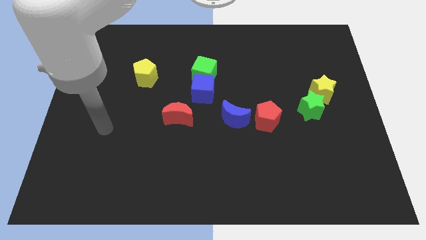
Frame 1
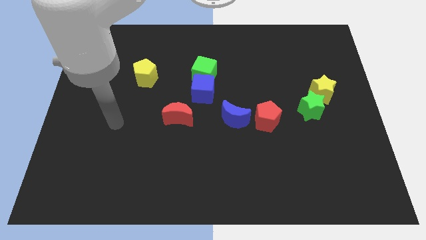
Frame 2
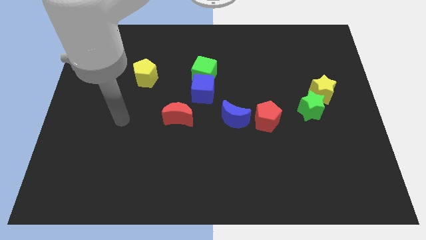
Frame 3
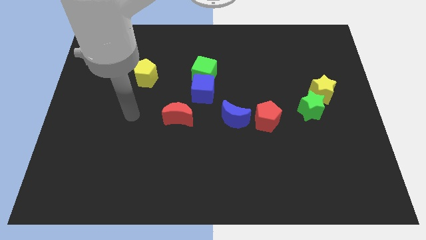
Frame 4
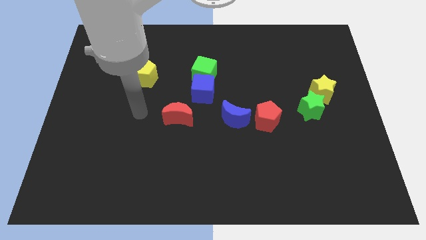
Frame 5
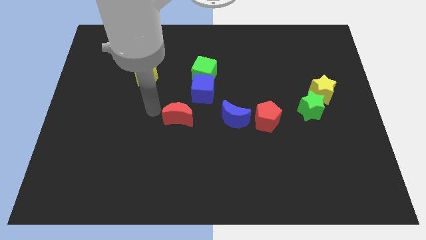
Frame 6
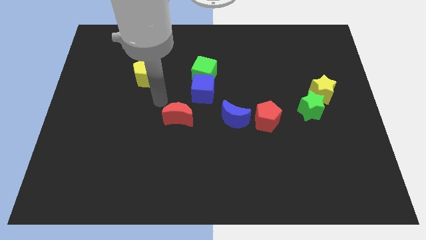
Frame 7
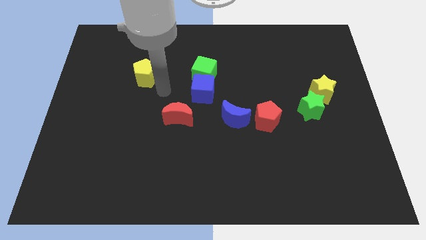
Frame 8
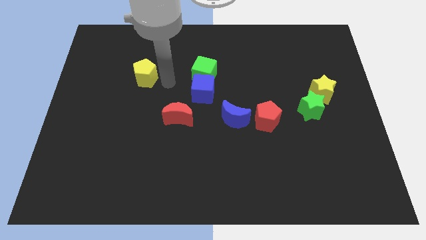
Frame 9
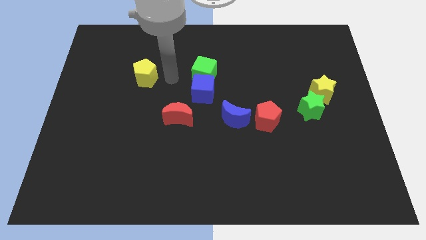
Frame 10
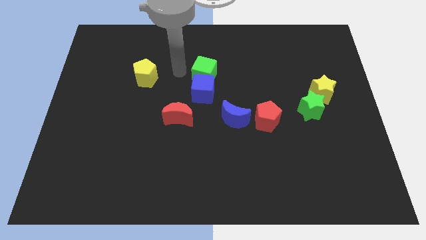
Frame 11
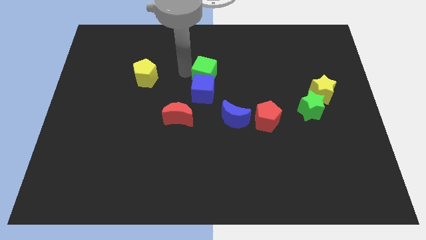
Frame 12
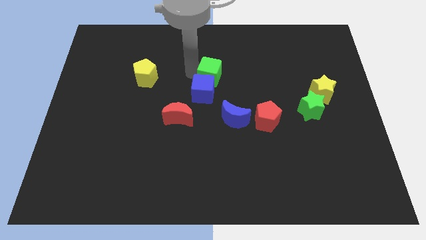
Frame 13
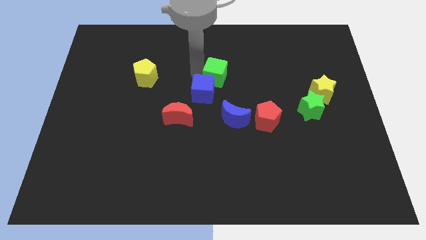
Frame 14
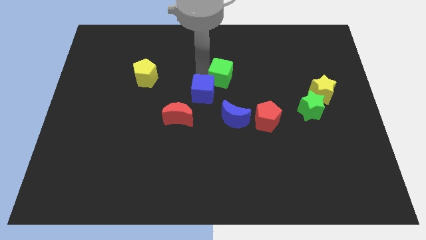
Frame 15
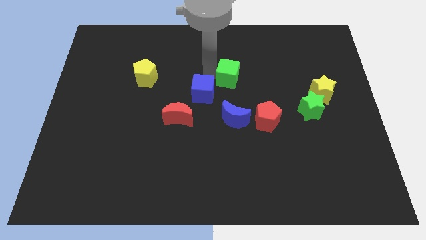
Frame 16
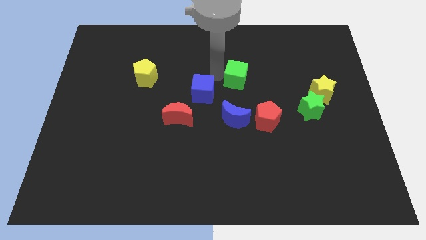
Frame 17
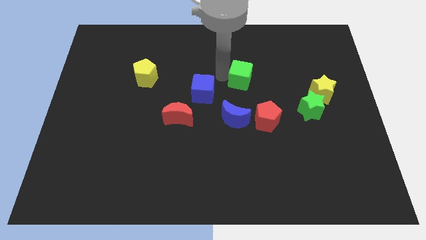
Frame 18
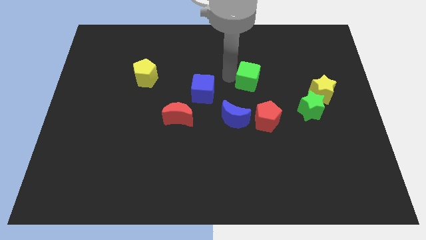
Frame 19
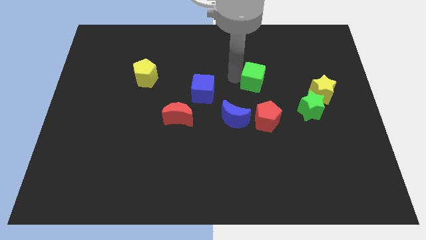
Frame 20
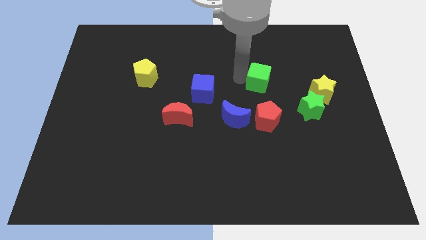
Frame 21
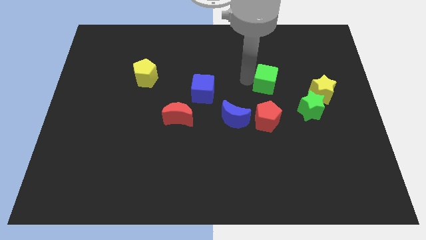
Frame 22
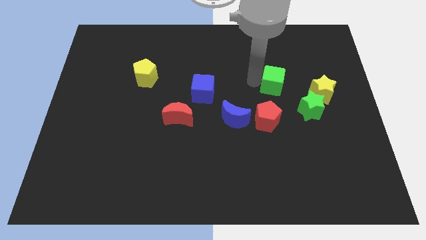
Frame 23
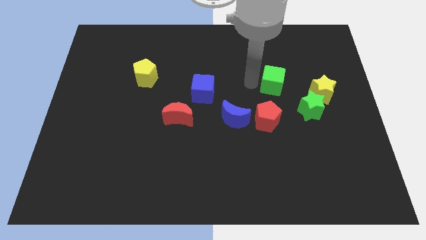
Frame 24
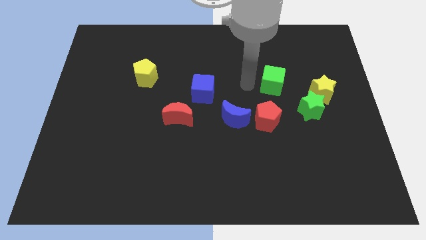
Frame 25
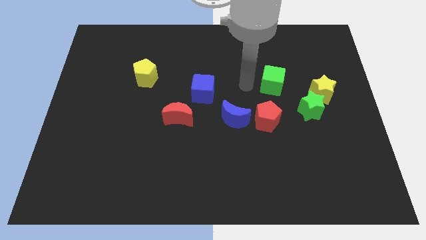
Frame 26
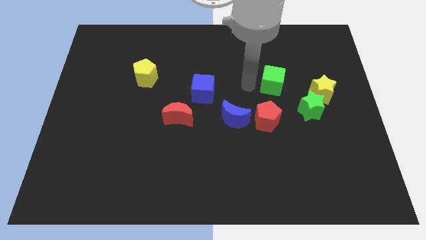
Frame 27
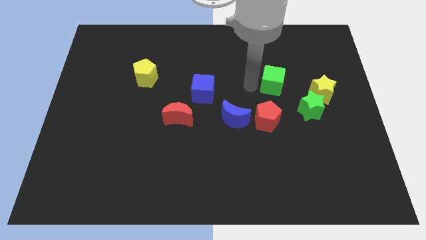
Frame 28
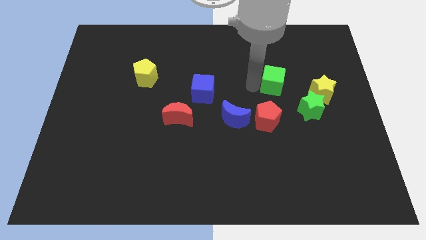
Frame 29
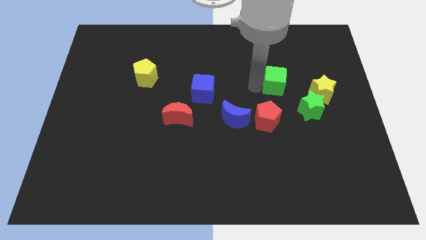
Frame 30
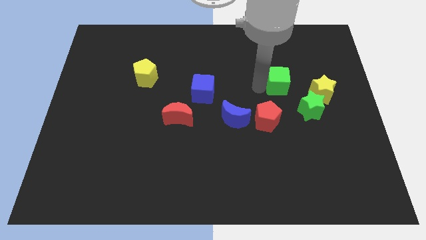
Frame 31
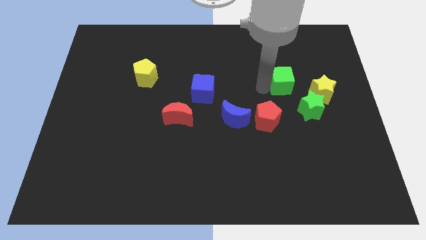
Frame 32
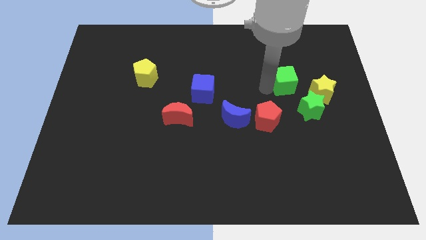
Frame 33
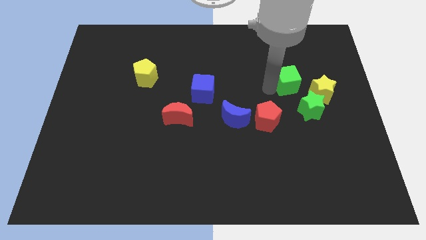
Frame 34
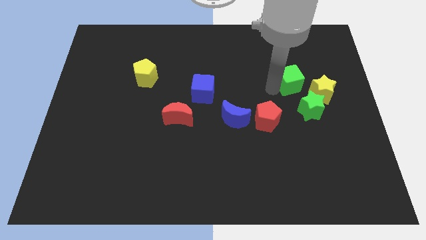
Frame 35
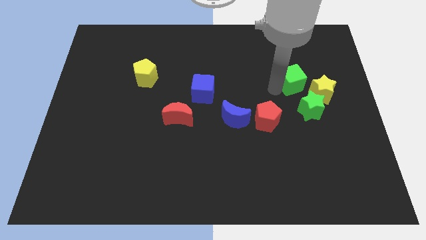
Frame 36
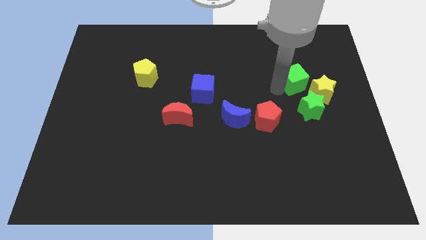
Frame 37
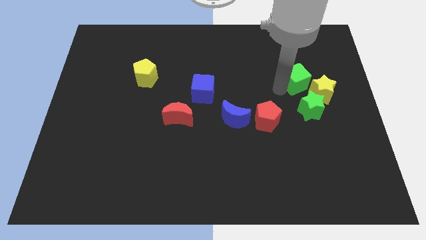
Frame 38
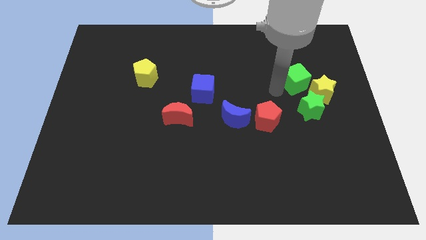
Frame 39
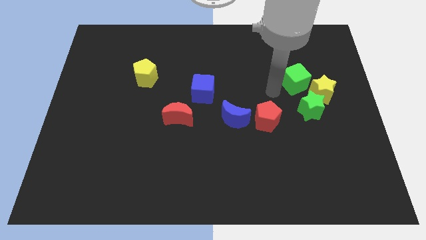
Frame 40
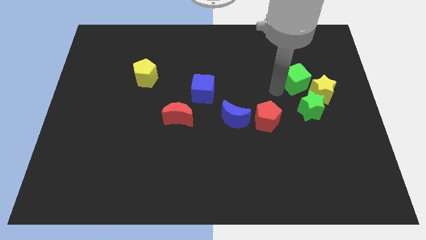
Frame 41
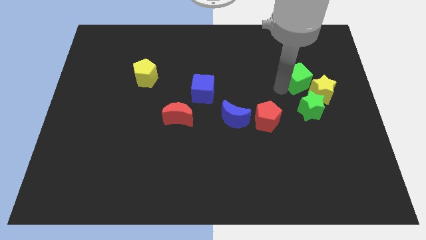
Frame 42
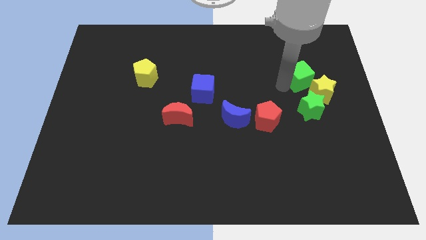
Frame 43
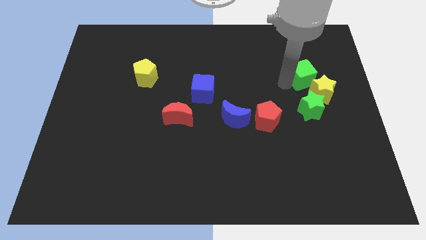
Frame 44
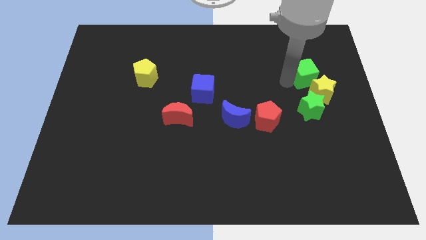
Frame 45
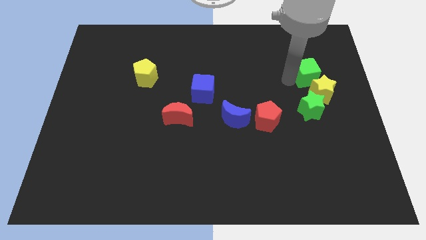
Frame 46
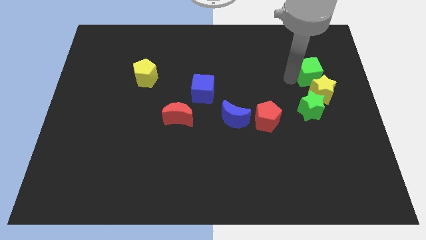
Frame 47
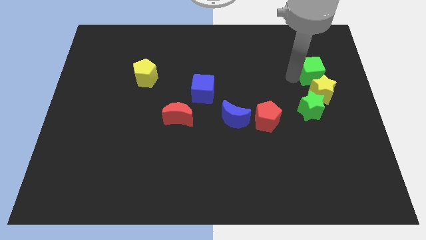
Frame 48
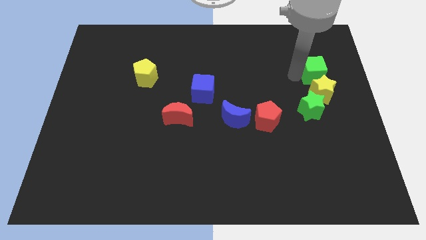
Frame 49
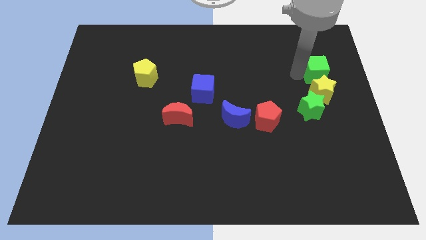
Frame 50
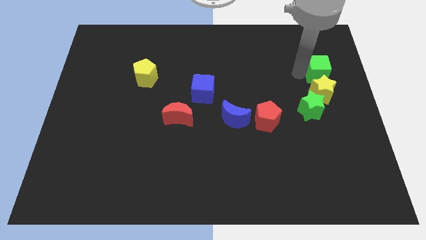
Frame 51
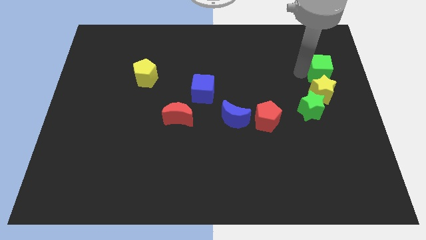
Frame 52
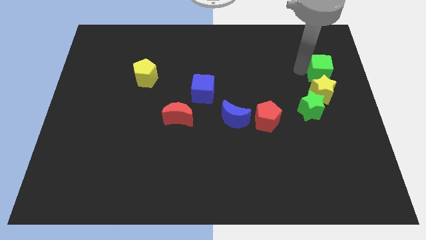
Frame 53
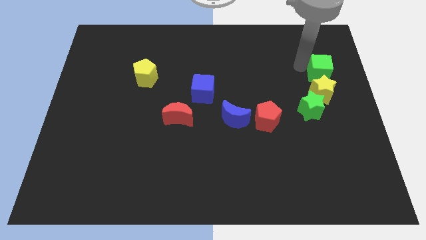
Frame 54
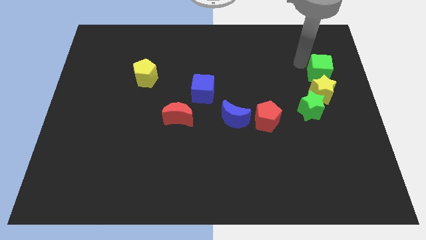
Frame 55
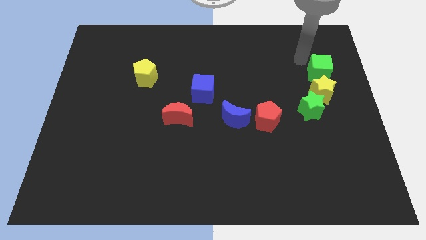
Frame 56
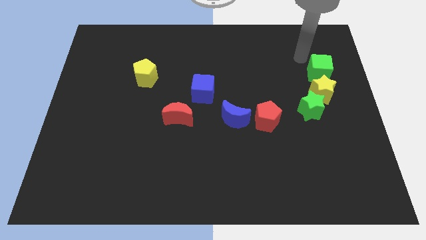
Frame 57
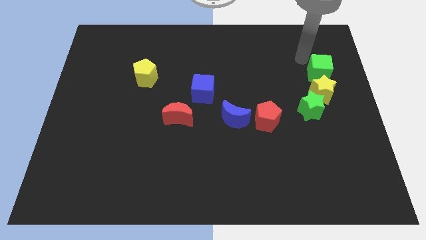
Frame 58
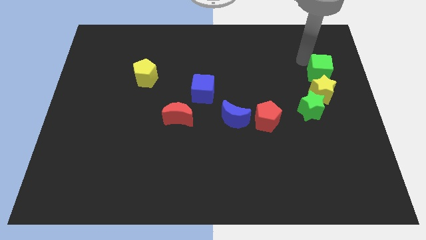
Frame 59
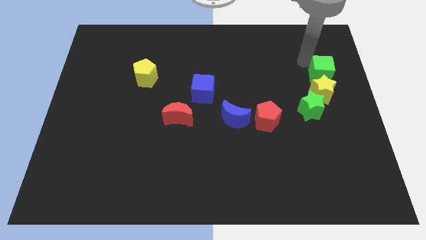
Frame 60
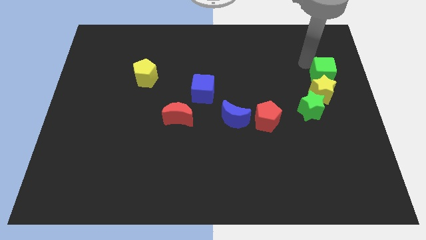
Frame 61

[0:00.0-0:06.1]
move the green cube to the center right

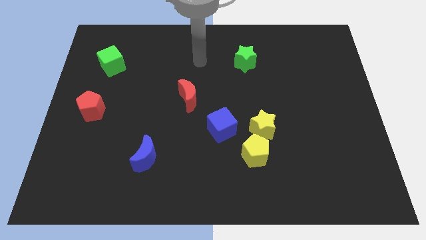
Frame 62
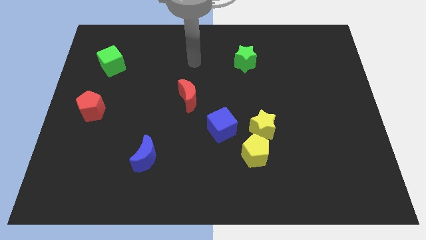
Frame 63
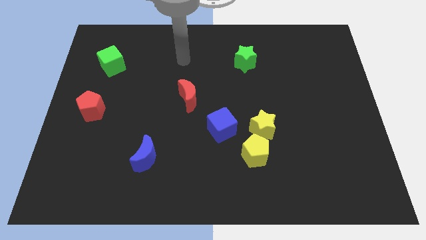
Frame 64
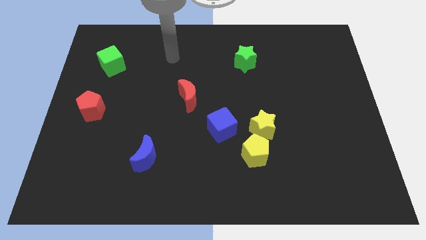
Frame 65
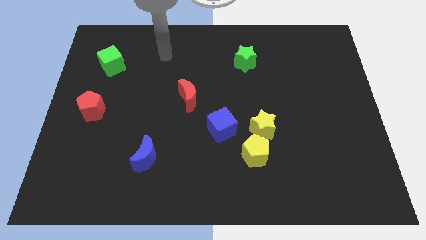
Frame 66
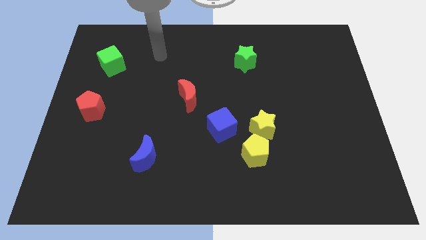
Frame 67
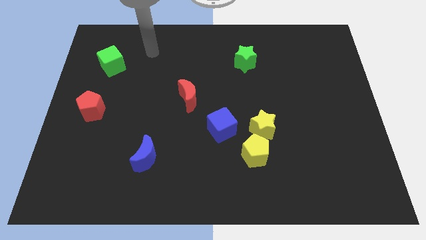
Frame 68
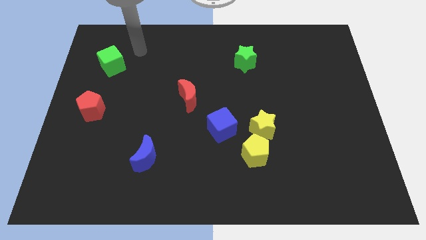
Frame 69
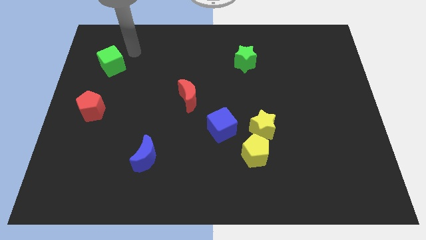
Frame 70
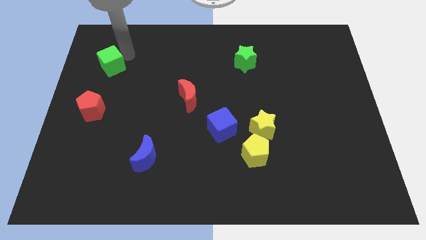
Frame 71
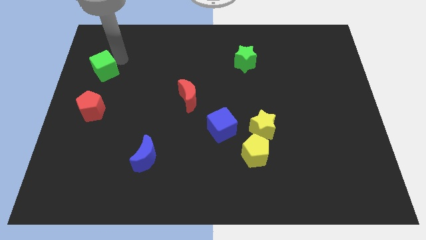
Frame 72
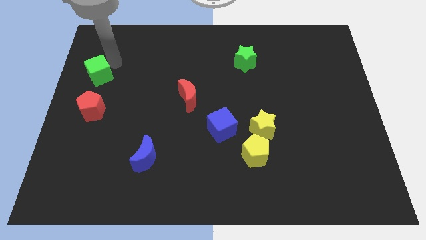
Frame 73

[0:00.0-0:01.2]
slide the green cube to the center left
